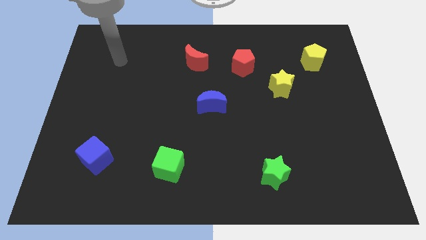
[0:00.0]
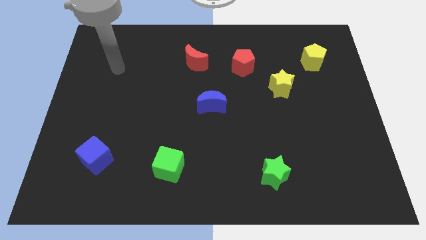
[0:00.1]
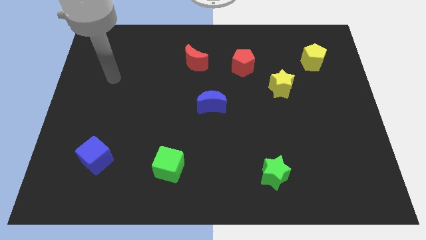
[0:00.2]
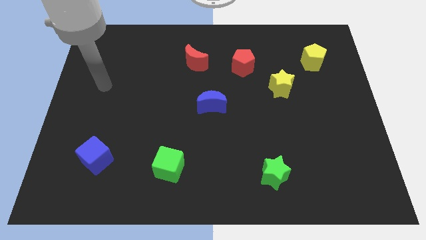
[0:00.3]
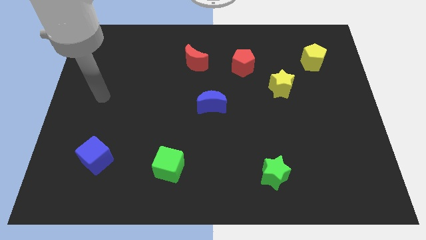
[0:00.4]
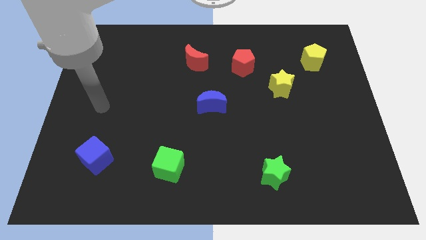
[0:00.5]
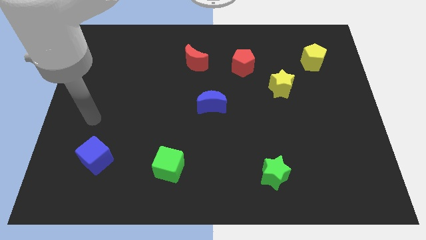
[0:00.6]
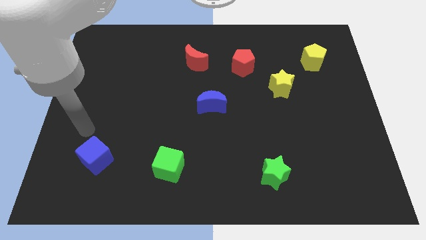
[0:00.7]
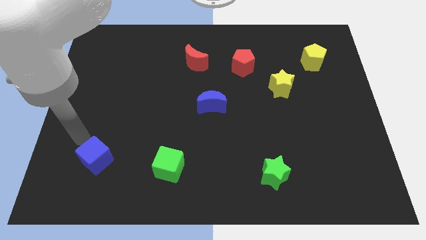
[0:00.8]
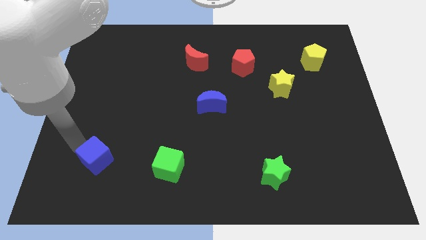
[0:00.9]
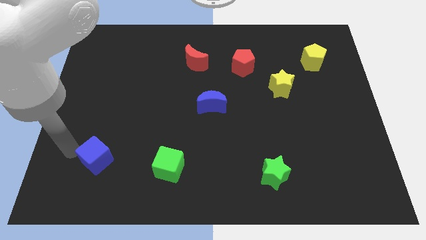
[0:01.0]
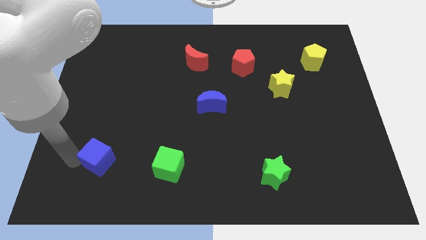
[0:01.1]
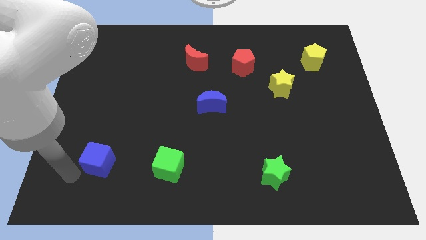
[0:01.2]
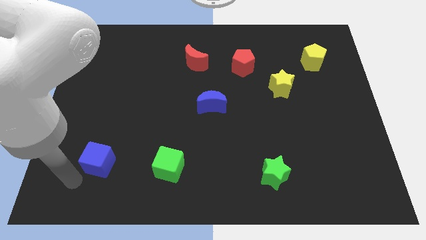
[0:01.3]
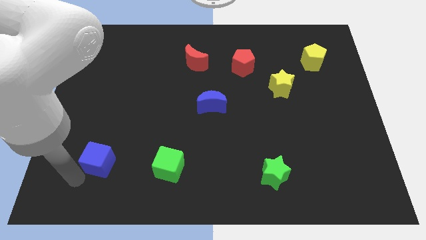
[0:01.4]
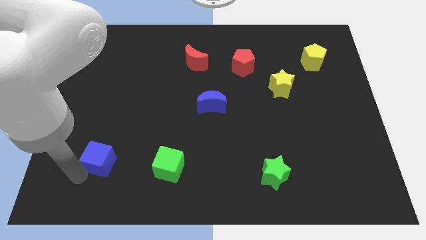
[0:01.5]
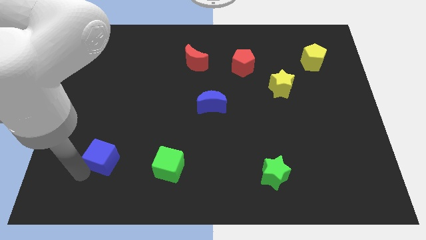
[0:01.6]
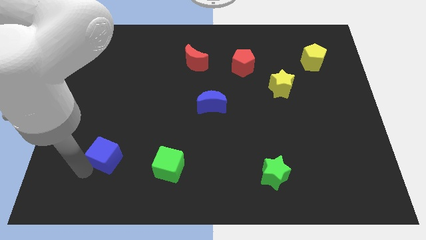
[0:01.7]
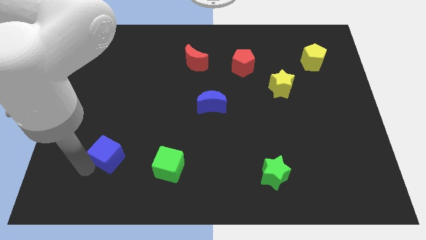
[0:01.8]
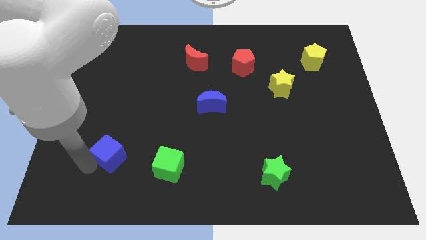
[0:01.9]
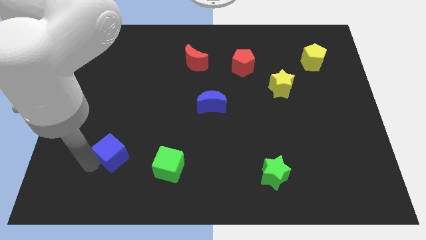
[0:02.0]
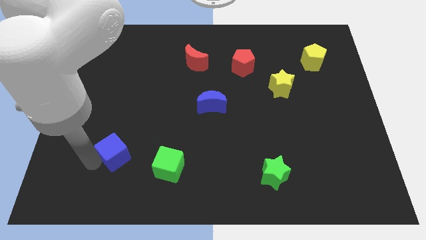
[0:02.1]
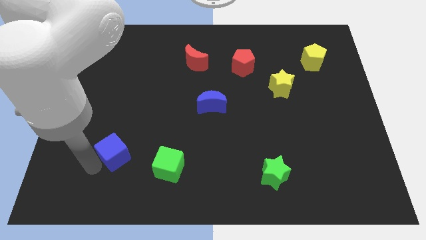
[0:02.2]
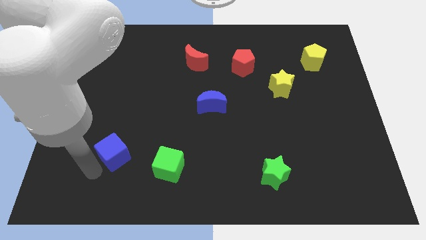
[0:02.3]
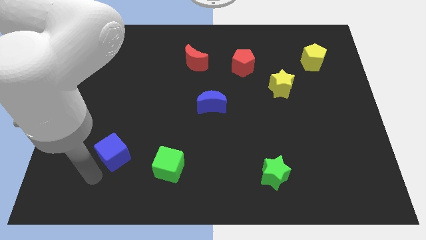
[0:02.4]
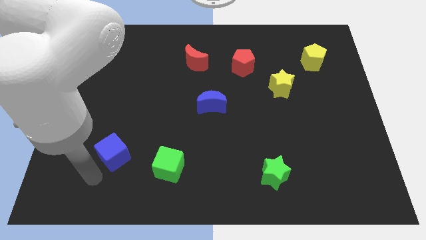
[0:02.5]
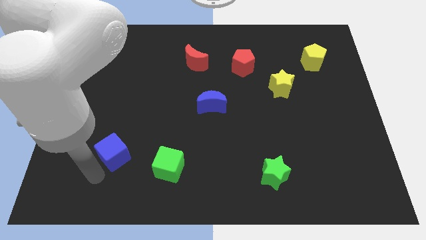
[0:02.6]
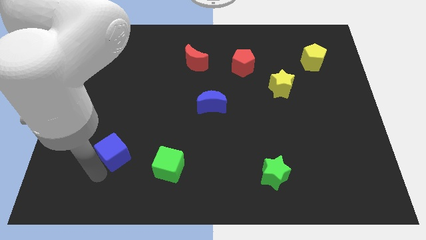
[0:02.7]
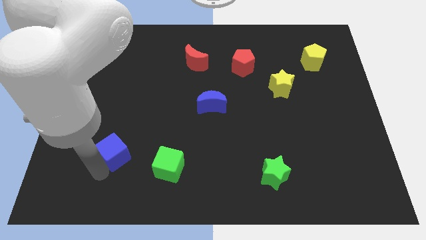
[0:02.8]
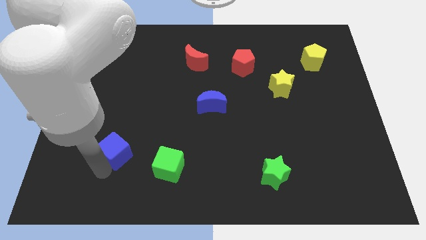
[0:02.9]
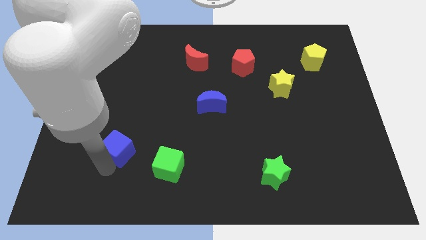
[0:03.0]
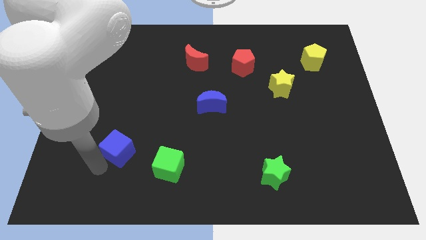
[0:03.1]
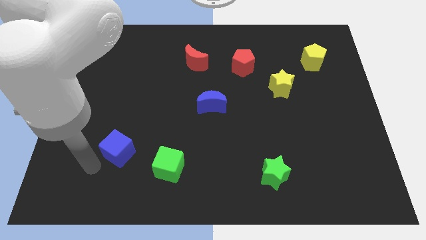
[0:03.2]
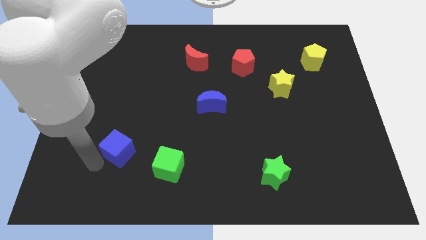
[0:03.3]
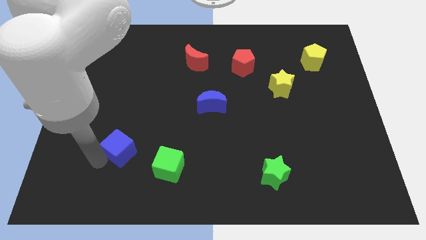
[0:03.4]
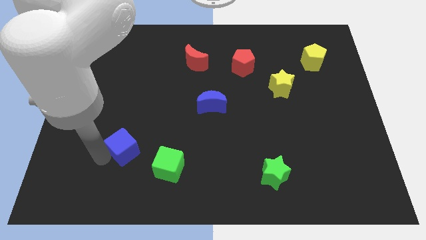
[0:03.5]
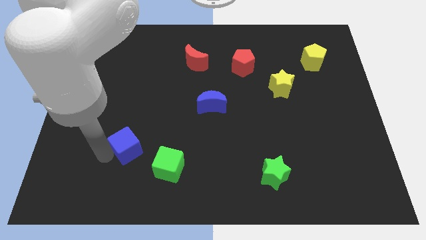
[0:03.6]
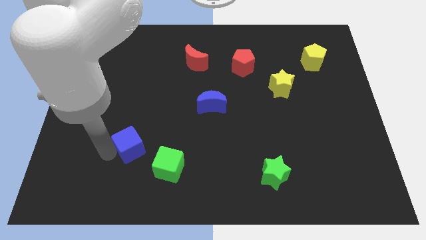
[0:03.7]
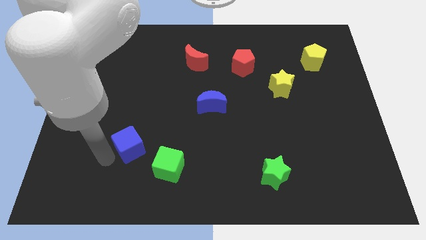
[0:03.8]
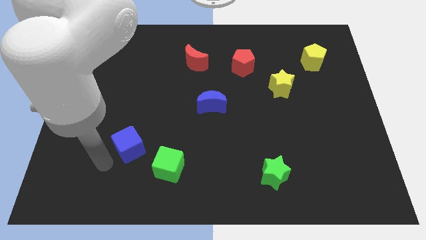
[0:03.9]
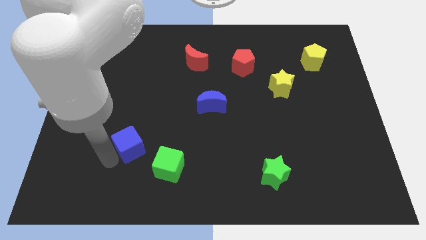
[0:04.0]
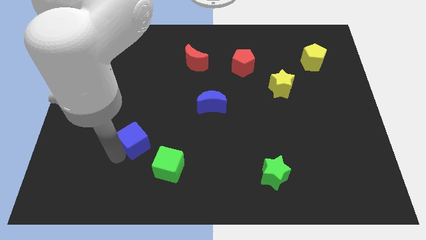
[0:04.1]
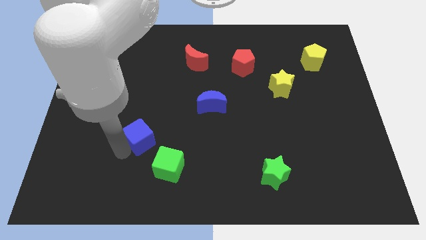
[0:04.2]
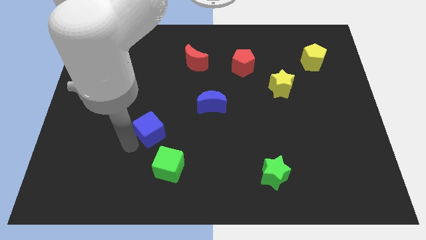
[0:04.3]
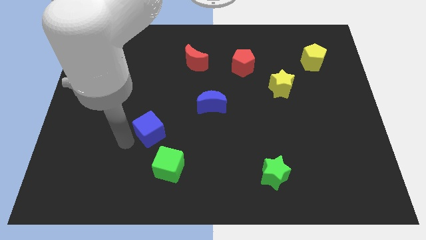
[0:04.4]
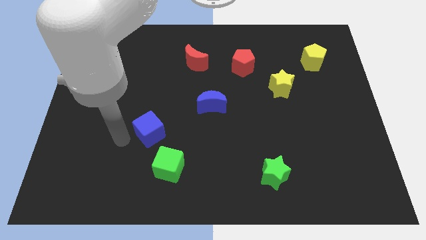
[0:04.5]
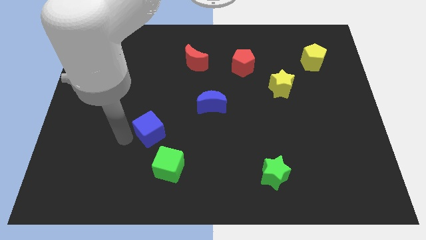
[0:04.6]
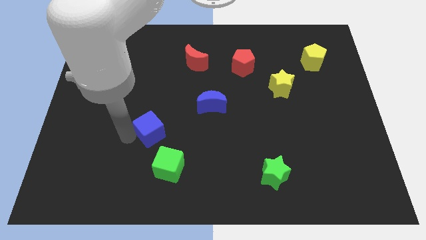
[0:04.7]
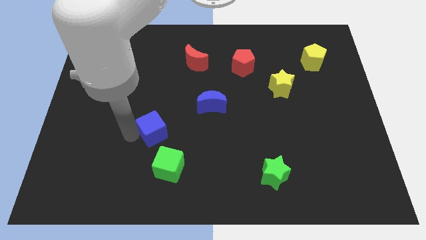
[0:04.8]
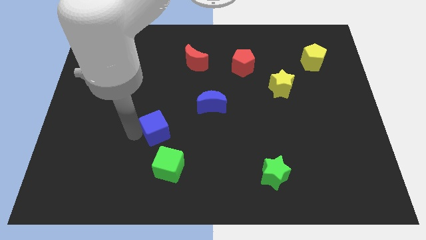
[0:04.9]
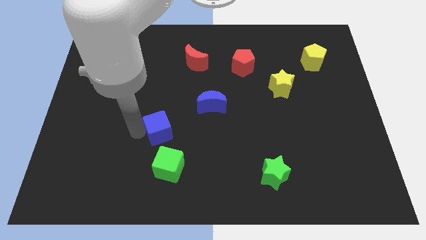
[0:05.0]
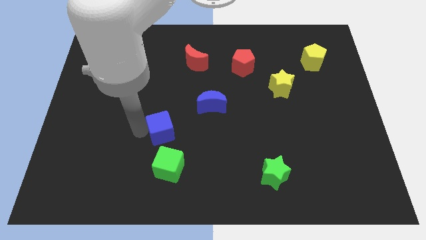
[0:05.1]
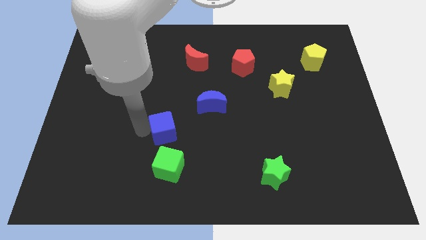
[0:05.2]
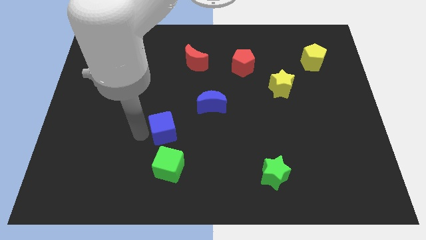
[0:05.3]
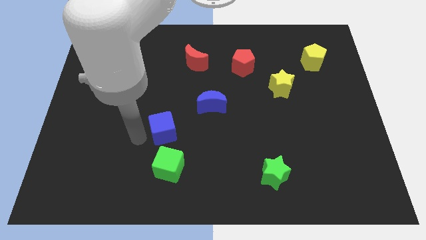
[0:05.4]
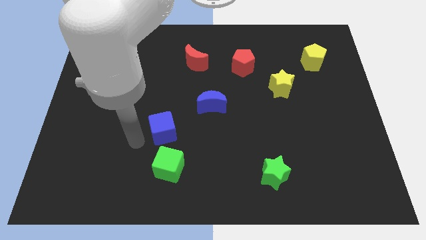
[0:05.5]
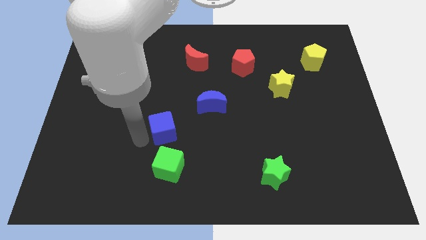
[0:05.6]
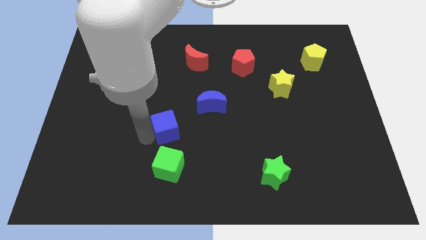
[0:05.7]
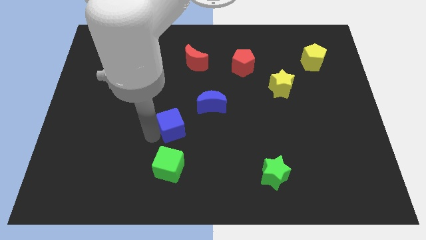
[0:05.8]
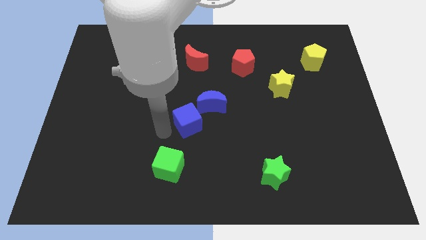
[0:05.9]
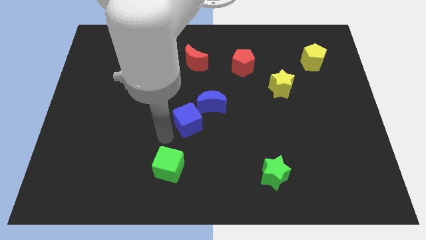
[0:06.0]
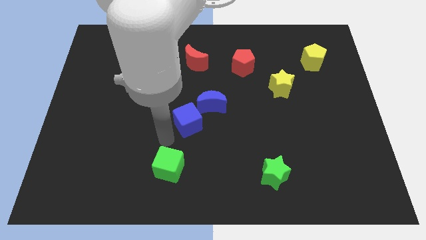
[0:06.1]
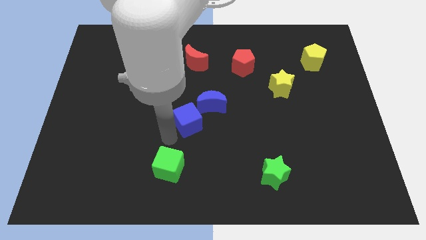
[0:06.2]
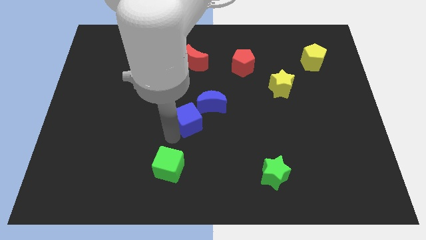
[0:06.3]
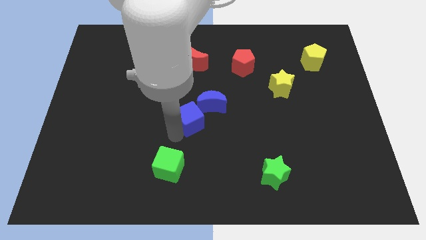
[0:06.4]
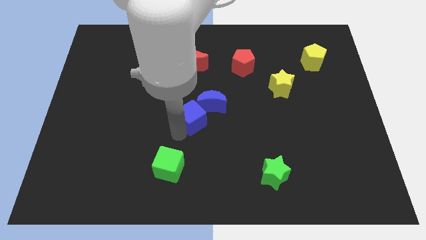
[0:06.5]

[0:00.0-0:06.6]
push the blue cube next to the blue moon

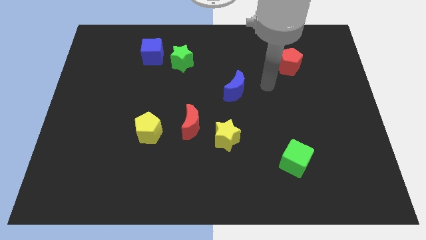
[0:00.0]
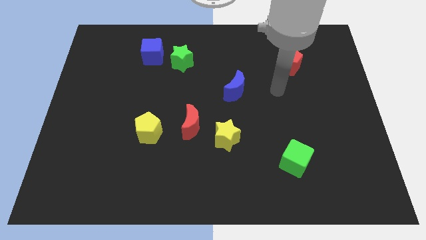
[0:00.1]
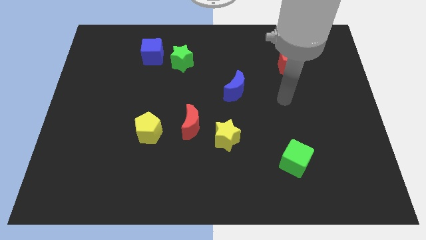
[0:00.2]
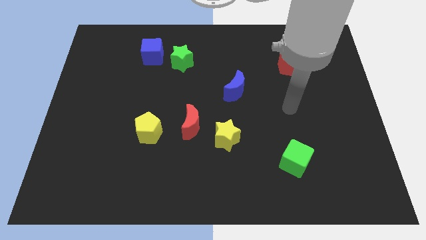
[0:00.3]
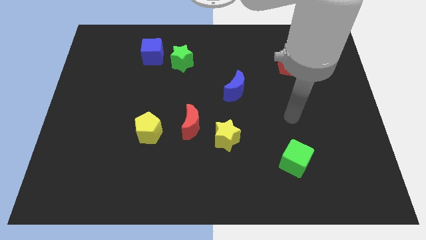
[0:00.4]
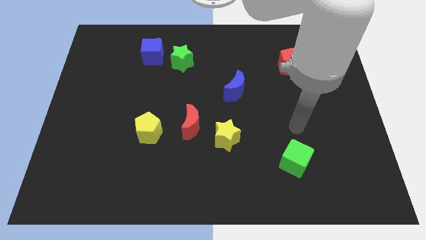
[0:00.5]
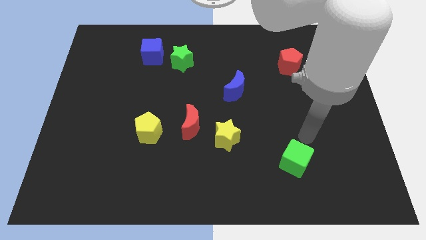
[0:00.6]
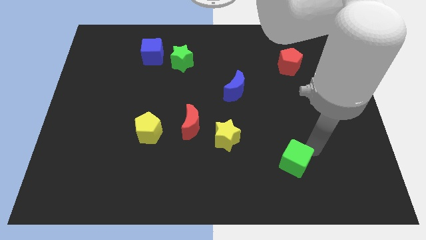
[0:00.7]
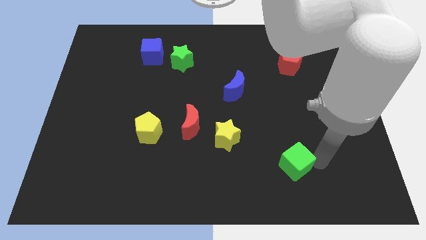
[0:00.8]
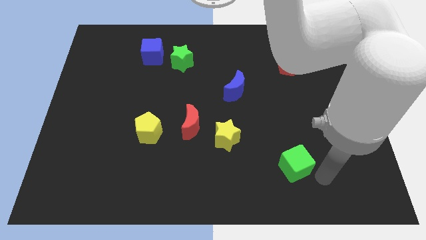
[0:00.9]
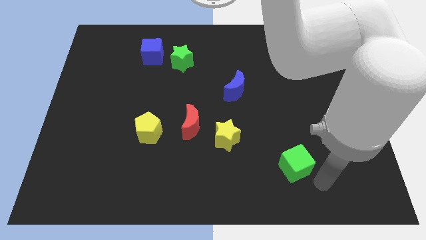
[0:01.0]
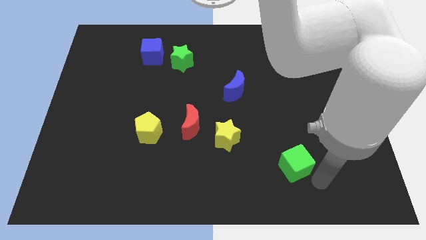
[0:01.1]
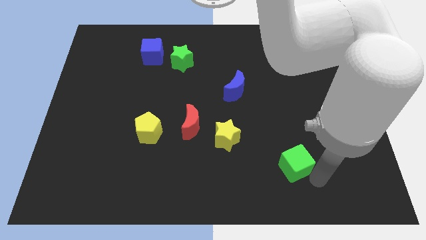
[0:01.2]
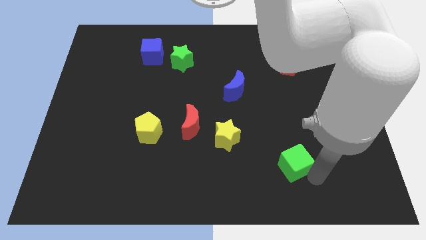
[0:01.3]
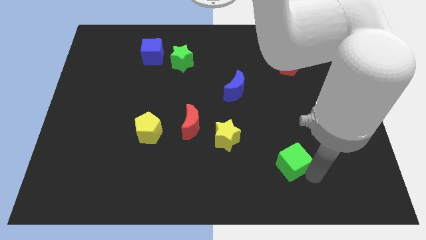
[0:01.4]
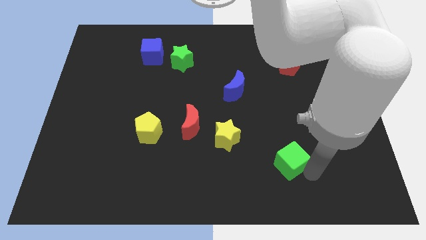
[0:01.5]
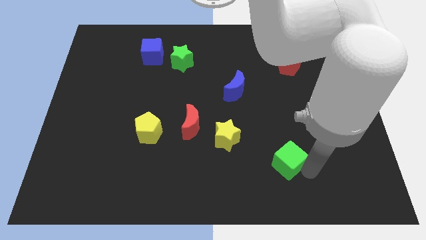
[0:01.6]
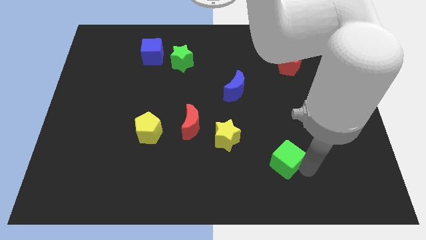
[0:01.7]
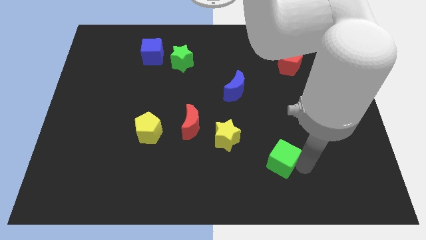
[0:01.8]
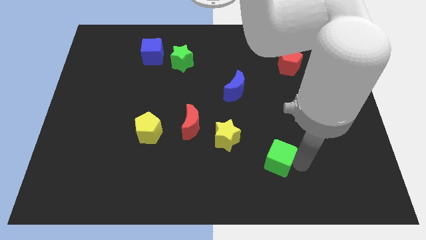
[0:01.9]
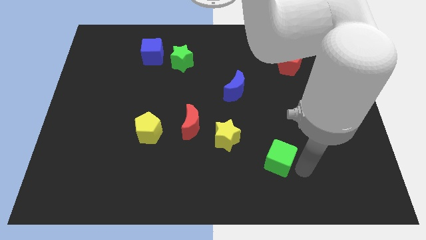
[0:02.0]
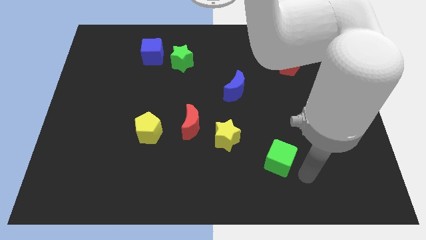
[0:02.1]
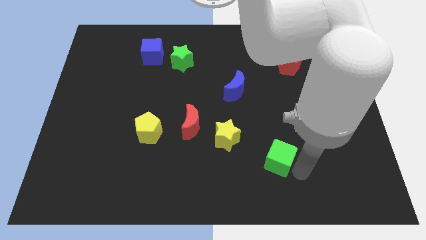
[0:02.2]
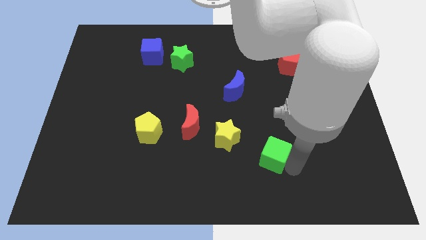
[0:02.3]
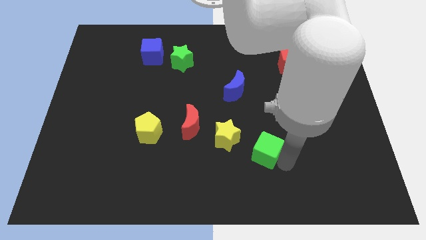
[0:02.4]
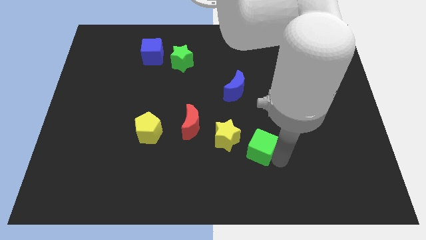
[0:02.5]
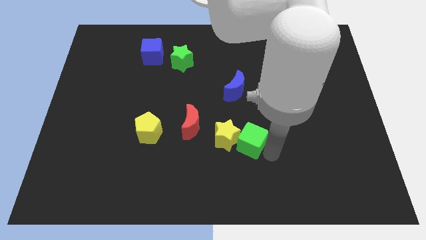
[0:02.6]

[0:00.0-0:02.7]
slide the green cube close to the yellow star
